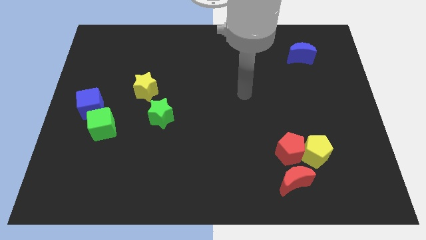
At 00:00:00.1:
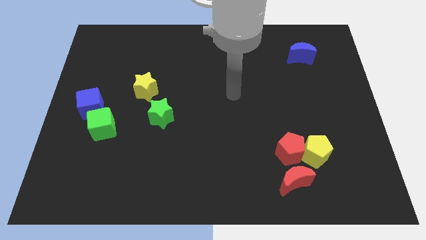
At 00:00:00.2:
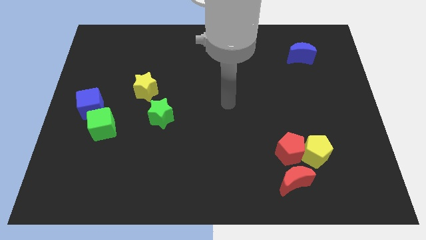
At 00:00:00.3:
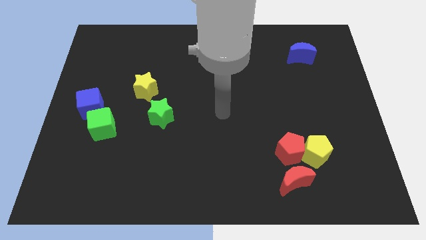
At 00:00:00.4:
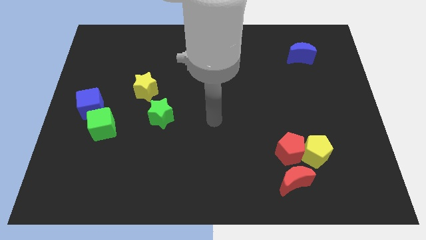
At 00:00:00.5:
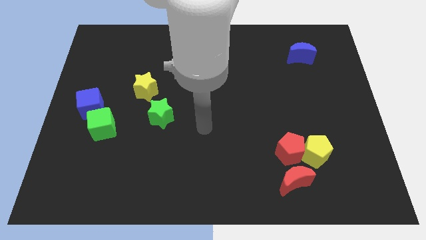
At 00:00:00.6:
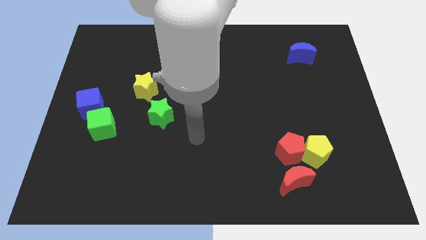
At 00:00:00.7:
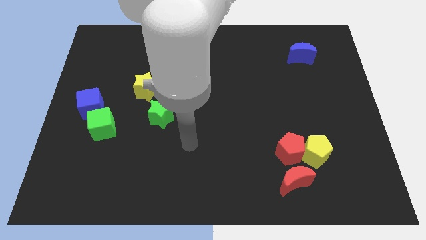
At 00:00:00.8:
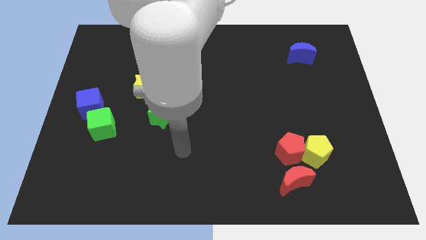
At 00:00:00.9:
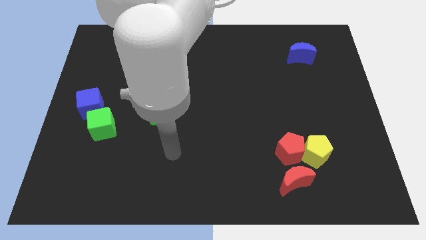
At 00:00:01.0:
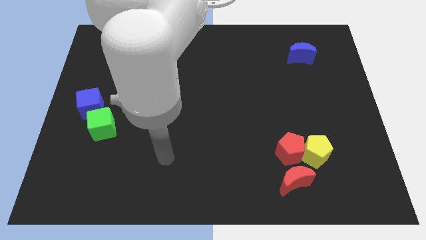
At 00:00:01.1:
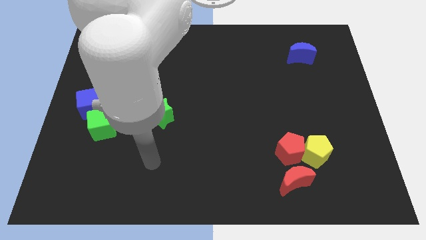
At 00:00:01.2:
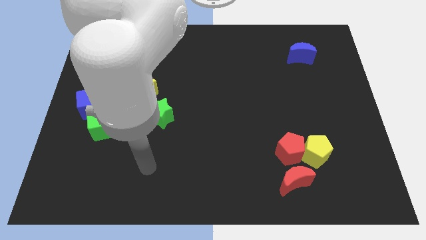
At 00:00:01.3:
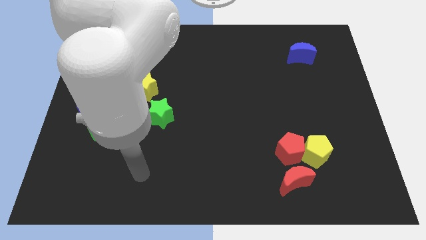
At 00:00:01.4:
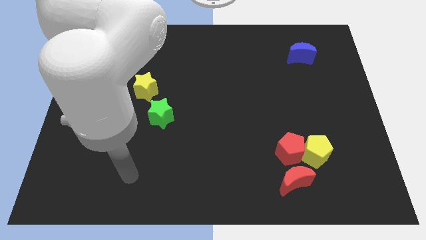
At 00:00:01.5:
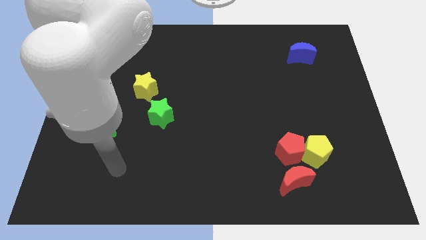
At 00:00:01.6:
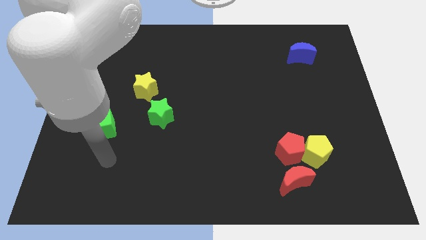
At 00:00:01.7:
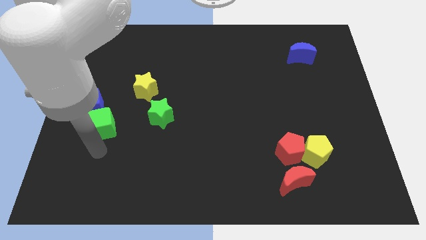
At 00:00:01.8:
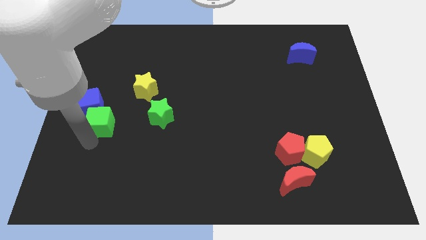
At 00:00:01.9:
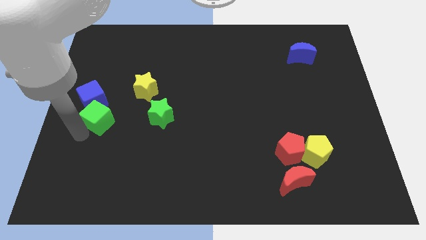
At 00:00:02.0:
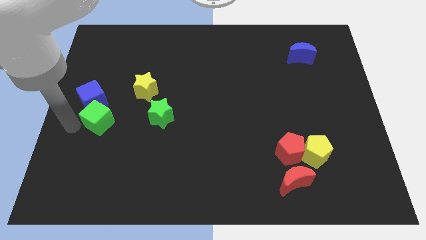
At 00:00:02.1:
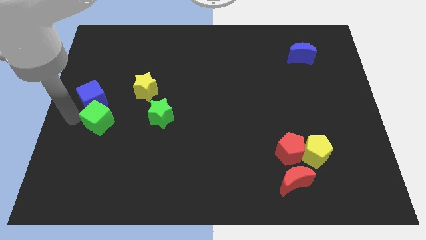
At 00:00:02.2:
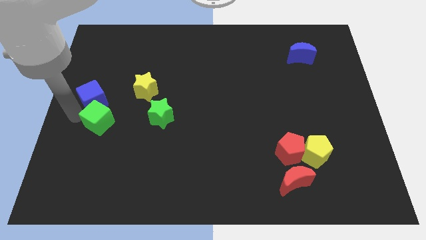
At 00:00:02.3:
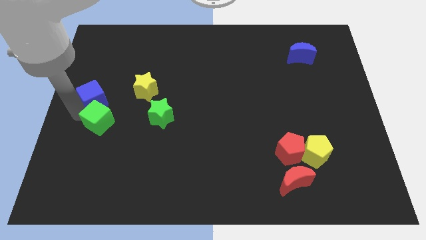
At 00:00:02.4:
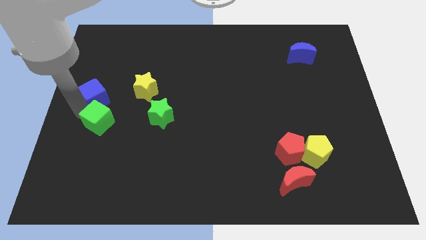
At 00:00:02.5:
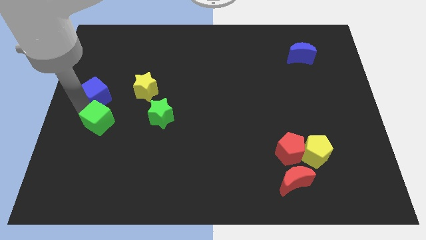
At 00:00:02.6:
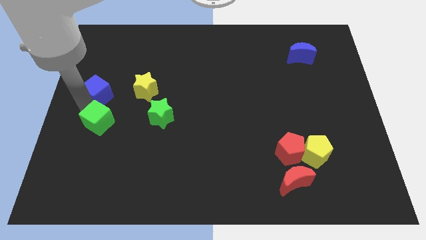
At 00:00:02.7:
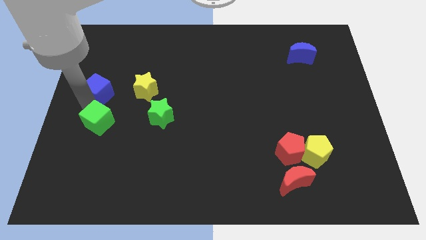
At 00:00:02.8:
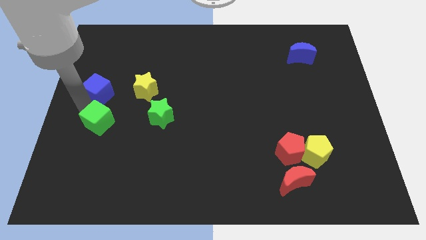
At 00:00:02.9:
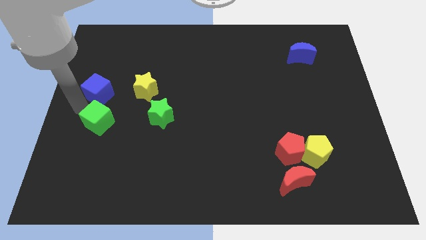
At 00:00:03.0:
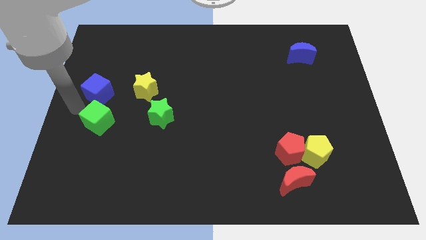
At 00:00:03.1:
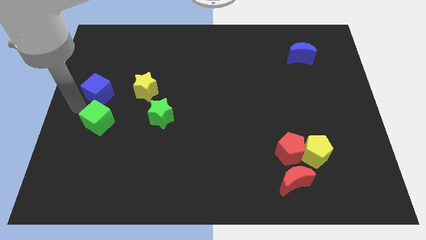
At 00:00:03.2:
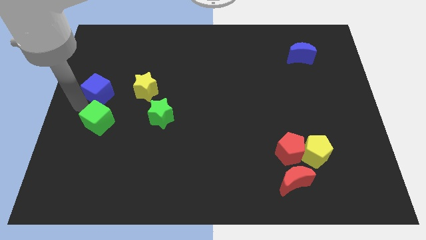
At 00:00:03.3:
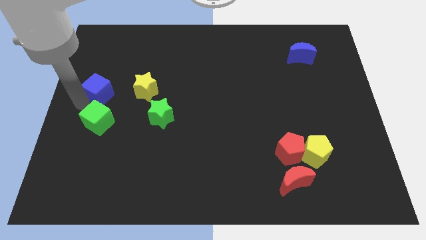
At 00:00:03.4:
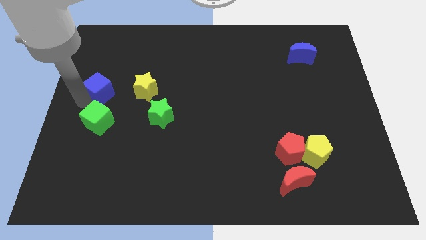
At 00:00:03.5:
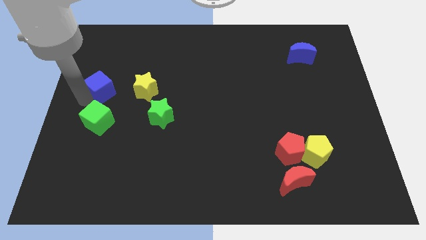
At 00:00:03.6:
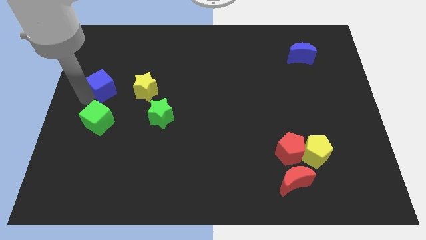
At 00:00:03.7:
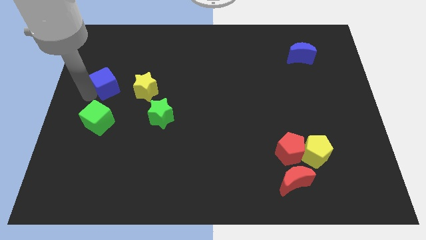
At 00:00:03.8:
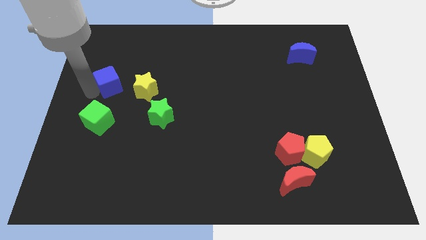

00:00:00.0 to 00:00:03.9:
move the blue cube somewhat up and then right

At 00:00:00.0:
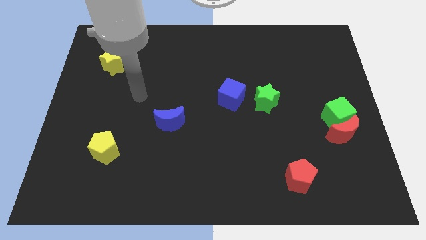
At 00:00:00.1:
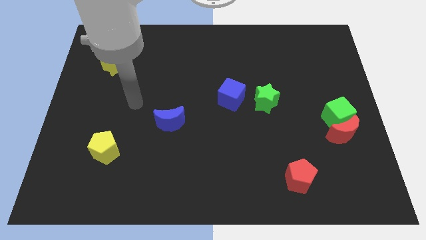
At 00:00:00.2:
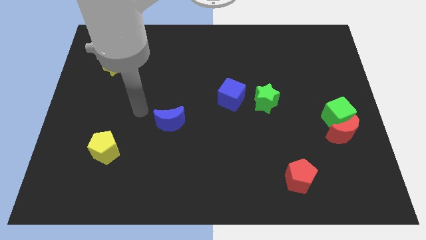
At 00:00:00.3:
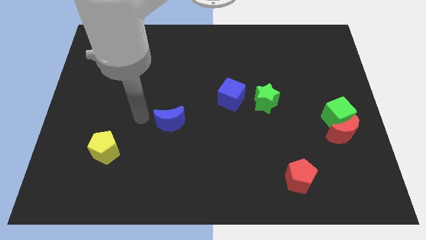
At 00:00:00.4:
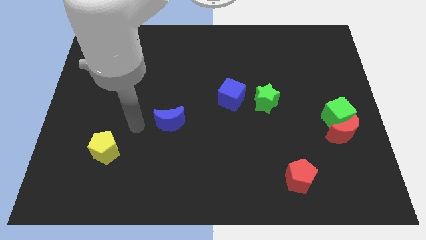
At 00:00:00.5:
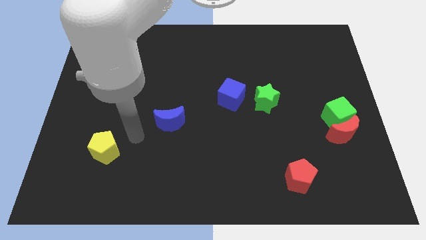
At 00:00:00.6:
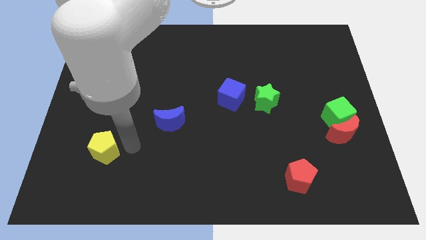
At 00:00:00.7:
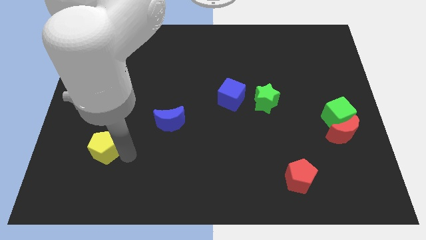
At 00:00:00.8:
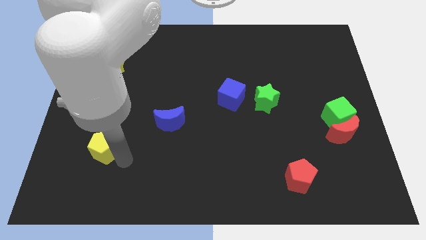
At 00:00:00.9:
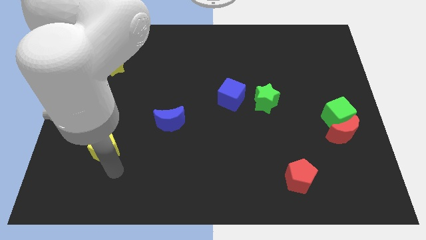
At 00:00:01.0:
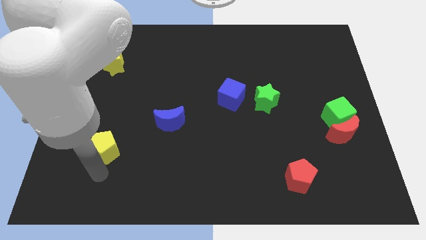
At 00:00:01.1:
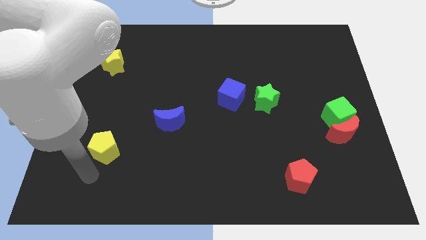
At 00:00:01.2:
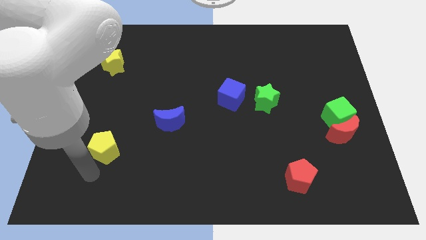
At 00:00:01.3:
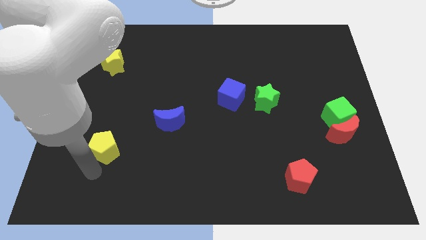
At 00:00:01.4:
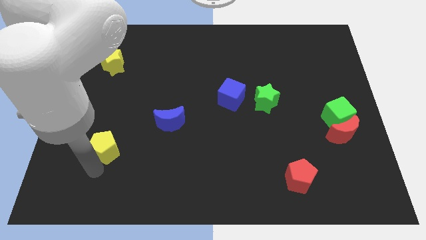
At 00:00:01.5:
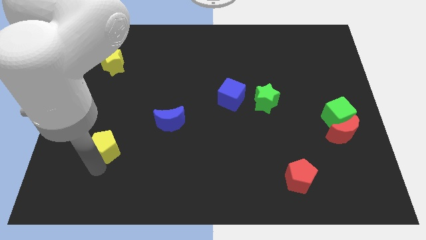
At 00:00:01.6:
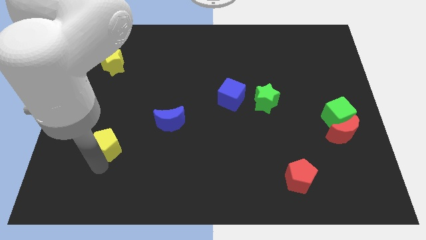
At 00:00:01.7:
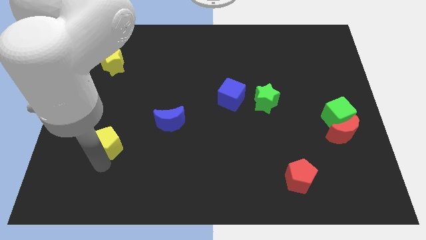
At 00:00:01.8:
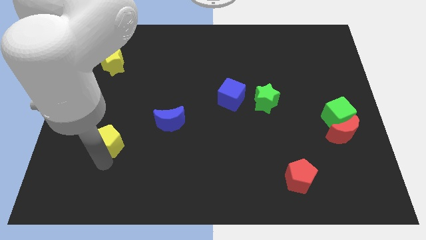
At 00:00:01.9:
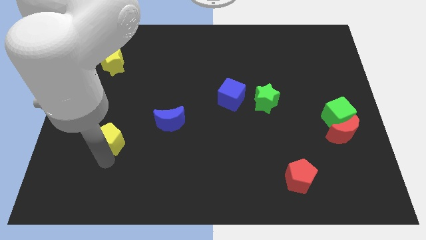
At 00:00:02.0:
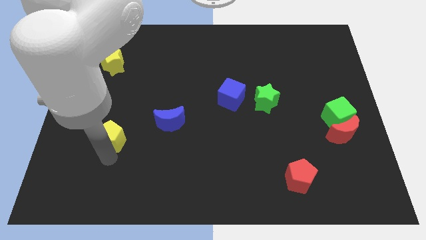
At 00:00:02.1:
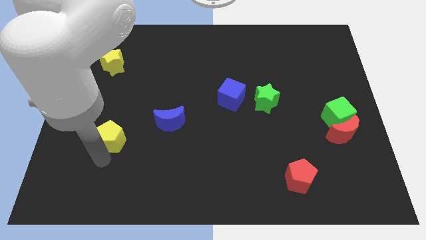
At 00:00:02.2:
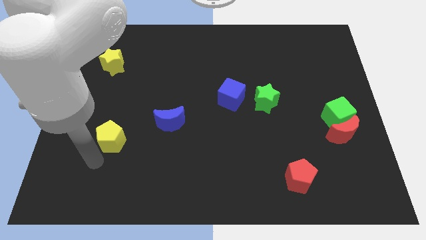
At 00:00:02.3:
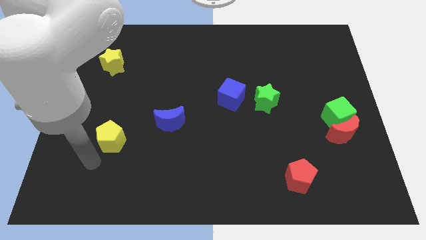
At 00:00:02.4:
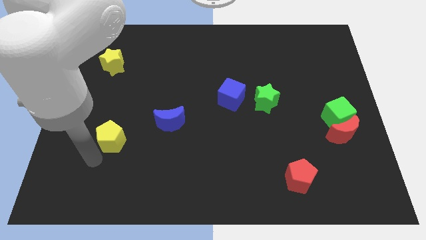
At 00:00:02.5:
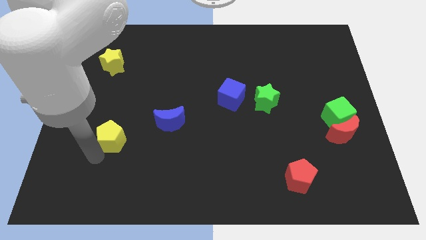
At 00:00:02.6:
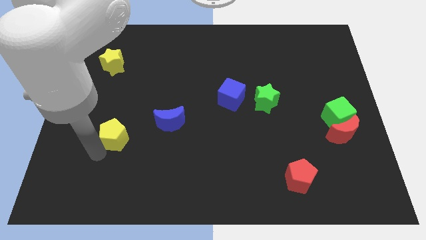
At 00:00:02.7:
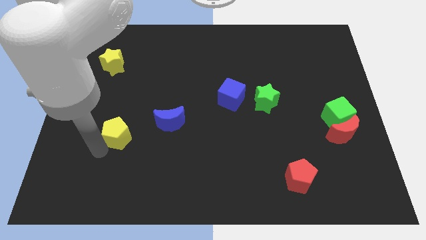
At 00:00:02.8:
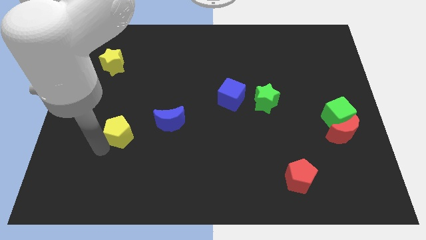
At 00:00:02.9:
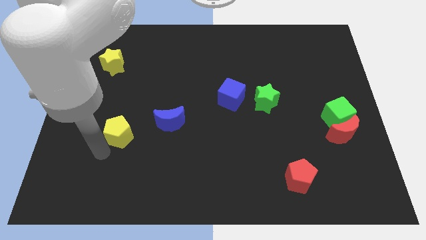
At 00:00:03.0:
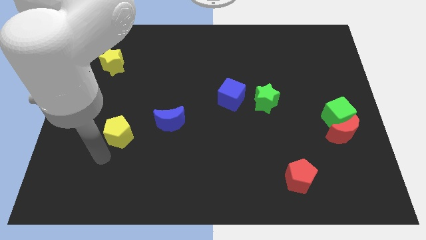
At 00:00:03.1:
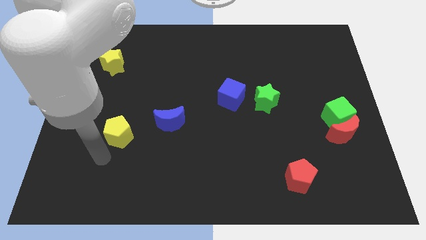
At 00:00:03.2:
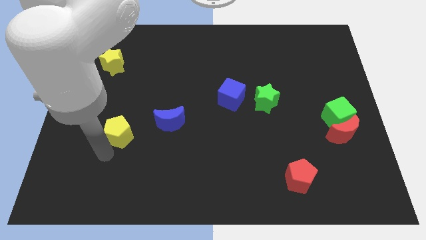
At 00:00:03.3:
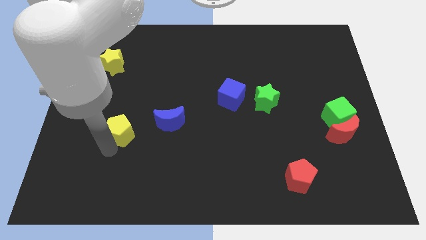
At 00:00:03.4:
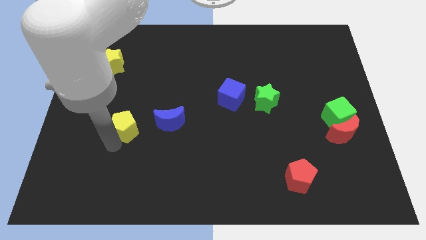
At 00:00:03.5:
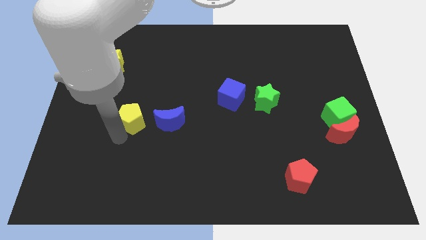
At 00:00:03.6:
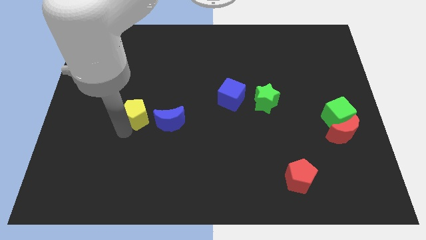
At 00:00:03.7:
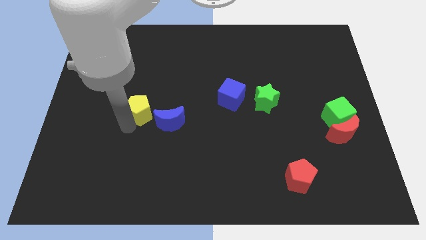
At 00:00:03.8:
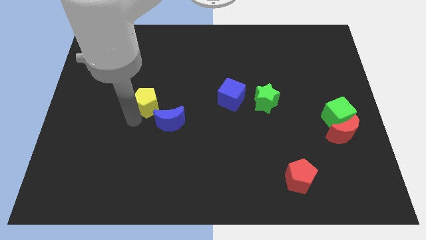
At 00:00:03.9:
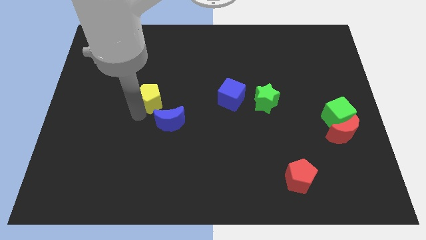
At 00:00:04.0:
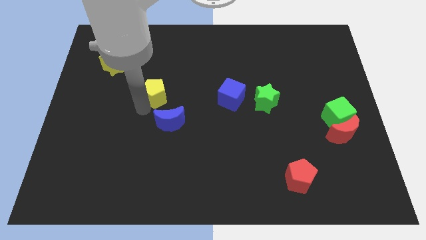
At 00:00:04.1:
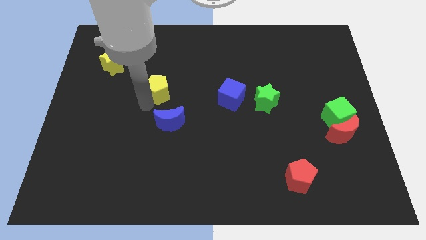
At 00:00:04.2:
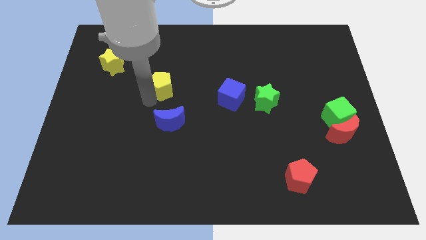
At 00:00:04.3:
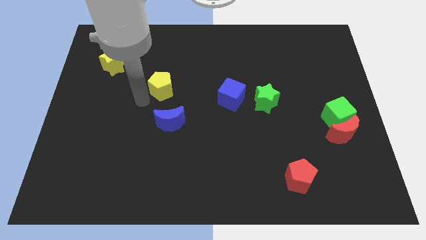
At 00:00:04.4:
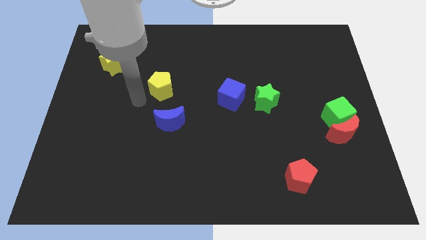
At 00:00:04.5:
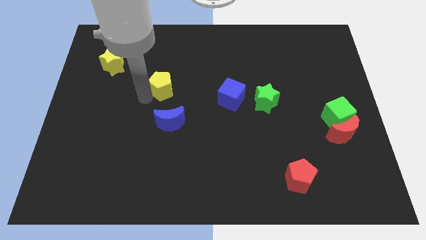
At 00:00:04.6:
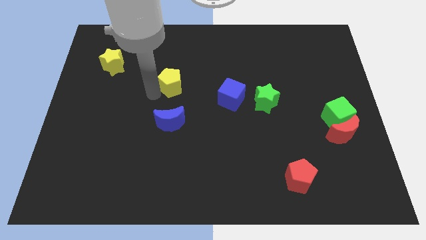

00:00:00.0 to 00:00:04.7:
move the yellow pentagon upwards and to the right diagonally
